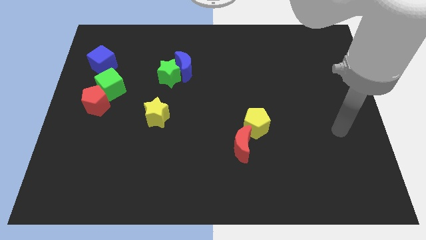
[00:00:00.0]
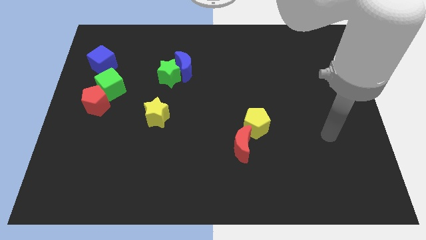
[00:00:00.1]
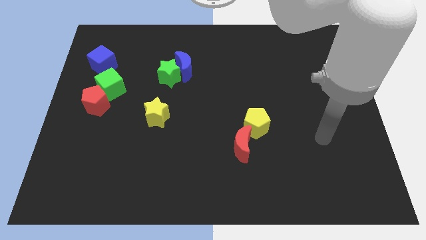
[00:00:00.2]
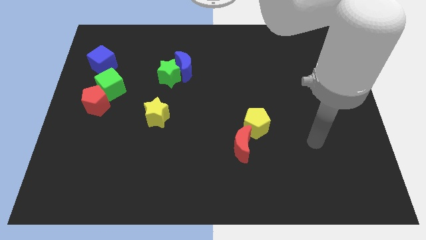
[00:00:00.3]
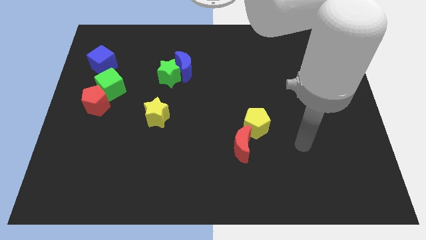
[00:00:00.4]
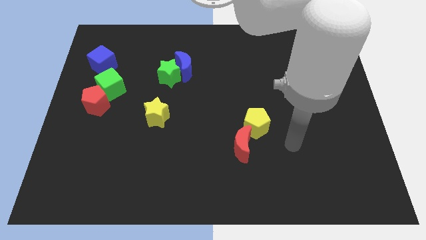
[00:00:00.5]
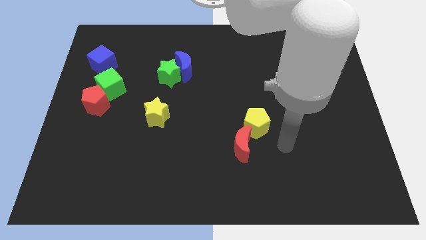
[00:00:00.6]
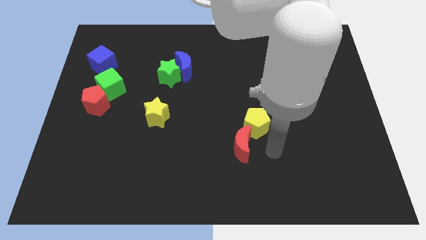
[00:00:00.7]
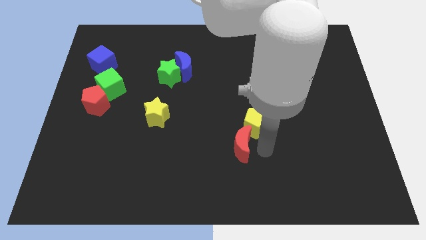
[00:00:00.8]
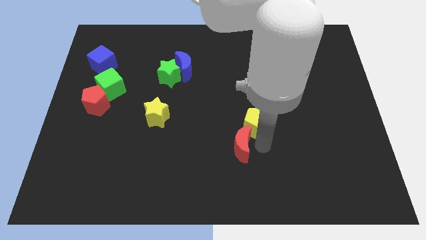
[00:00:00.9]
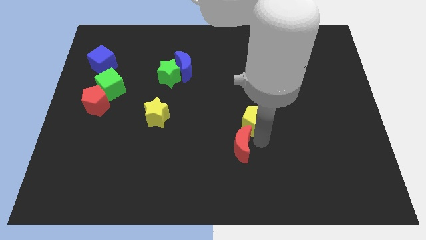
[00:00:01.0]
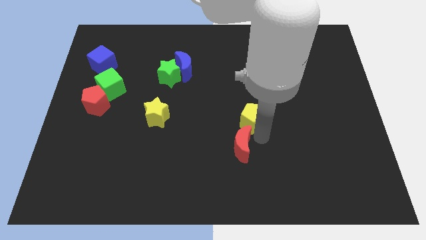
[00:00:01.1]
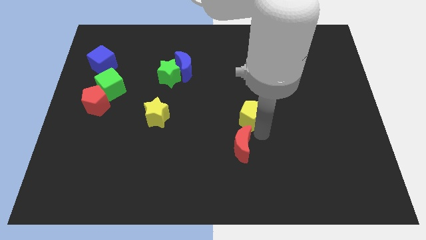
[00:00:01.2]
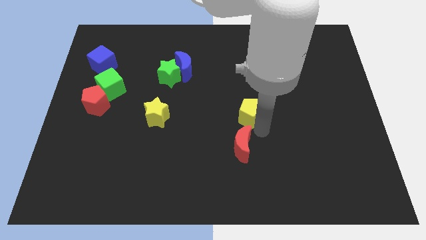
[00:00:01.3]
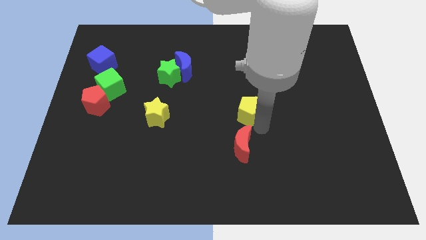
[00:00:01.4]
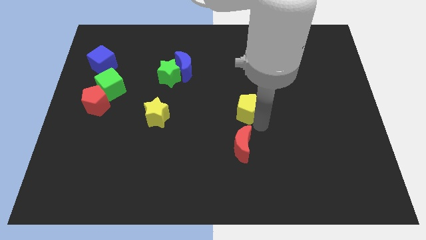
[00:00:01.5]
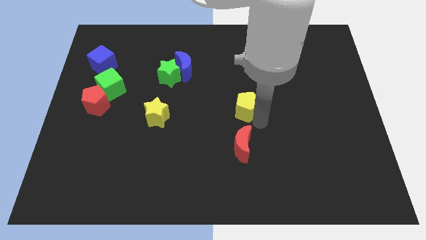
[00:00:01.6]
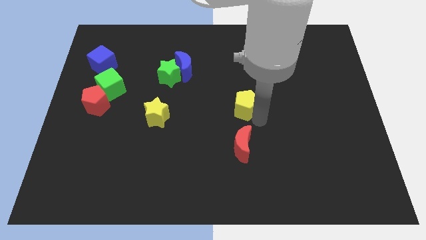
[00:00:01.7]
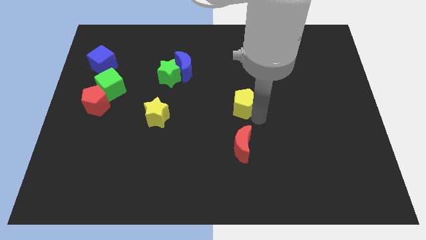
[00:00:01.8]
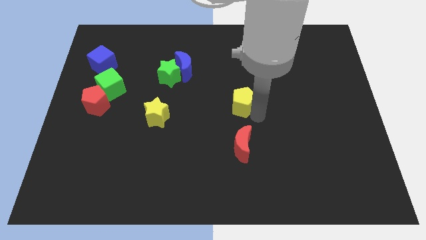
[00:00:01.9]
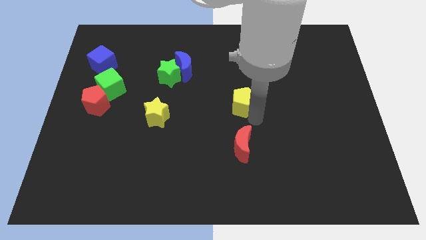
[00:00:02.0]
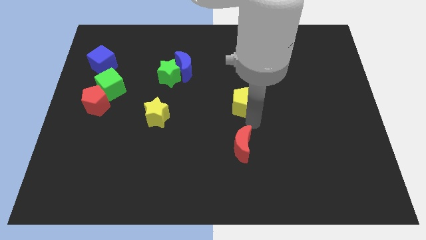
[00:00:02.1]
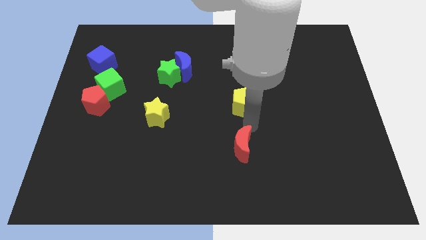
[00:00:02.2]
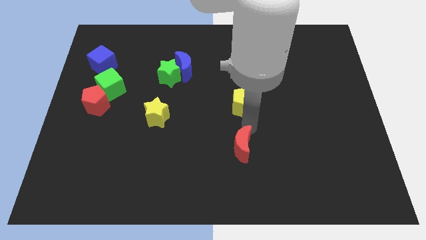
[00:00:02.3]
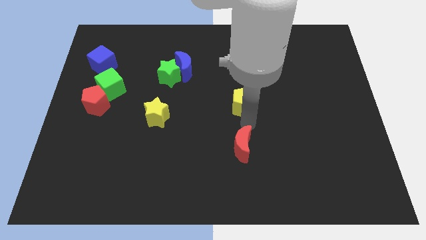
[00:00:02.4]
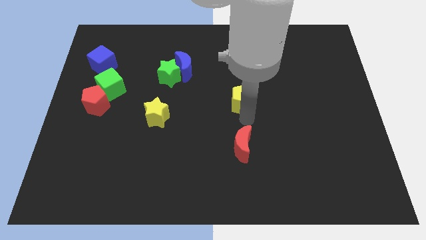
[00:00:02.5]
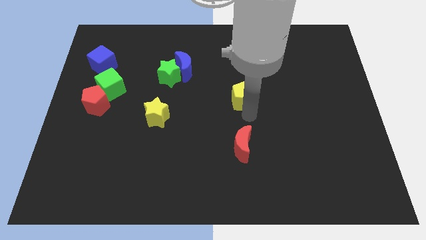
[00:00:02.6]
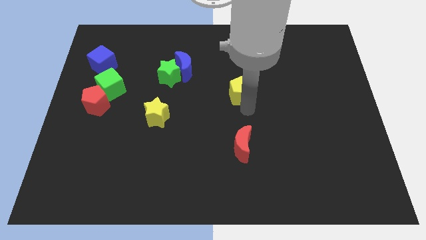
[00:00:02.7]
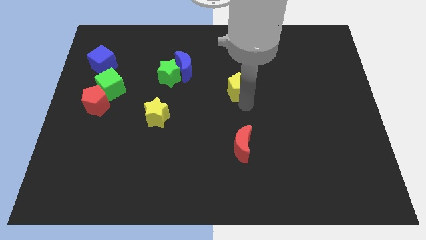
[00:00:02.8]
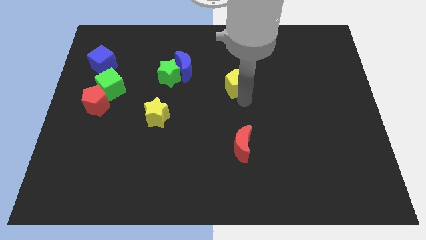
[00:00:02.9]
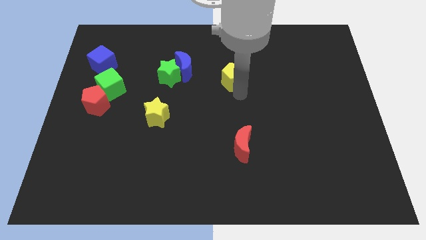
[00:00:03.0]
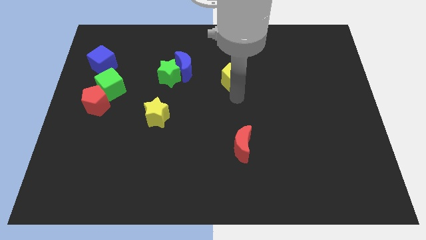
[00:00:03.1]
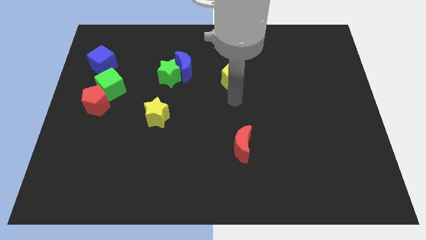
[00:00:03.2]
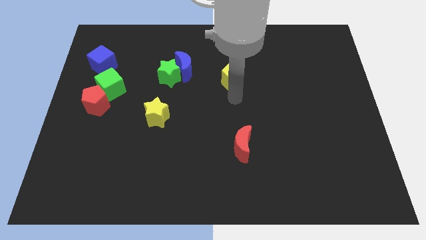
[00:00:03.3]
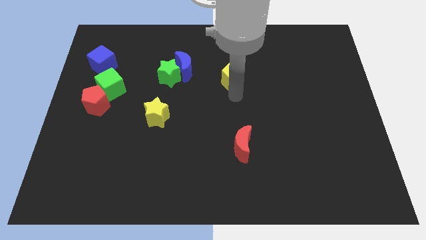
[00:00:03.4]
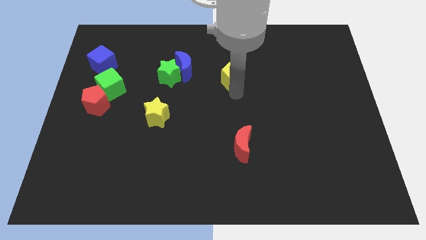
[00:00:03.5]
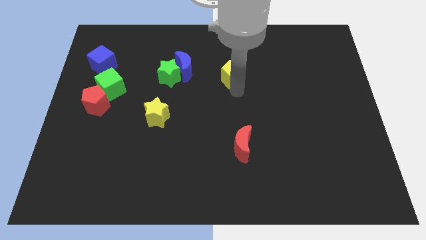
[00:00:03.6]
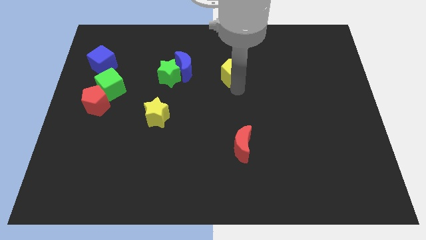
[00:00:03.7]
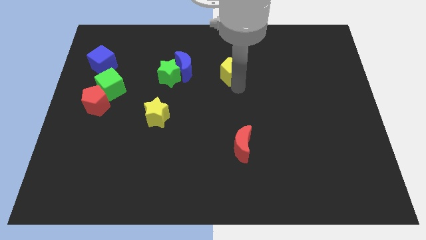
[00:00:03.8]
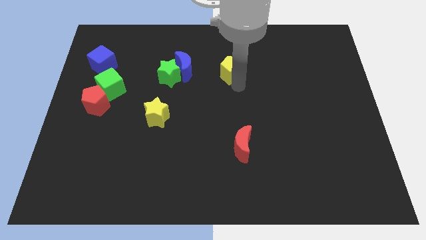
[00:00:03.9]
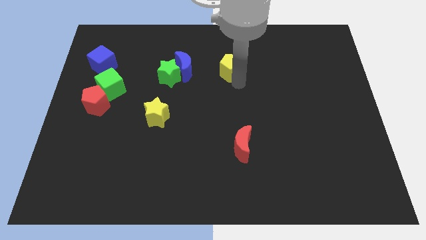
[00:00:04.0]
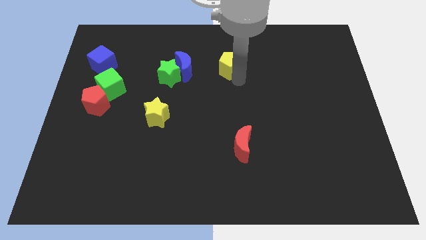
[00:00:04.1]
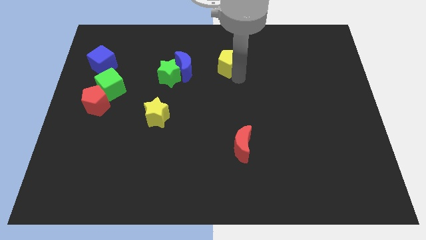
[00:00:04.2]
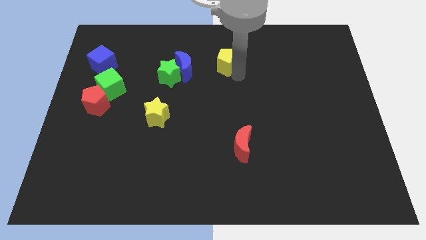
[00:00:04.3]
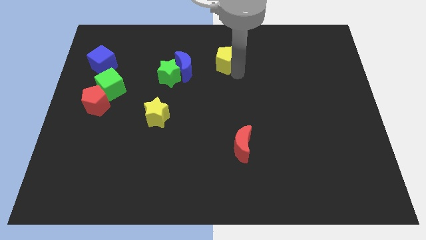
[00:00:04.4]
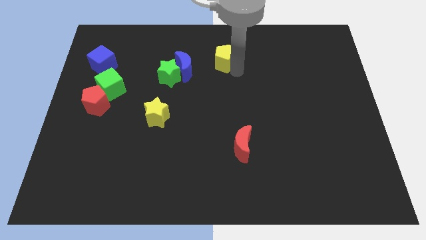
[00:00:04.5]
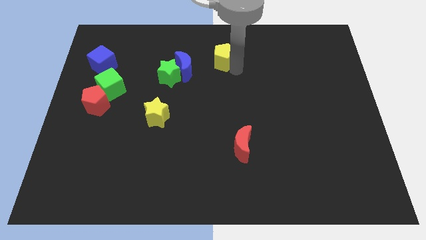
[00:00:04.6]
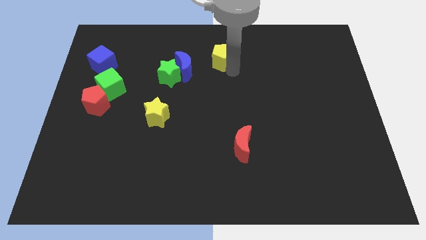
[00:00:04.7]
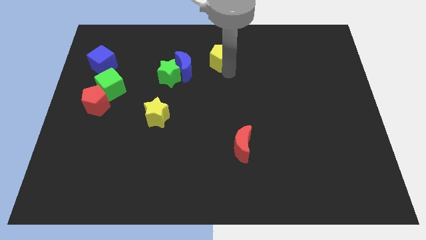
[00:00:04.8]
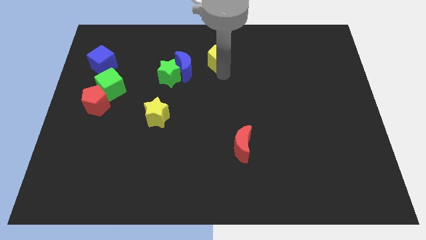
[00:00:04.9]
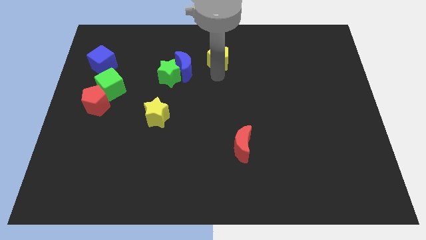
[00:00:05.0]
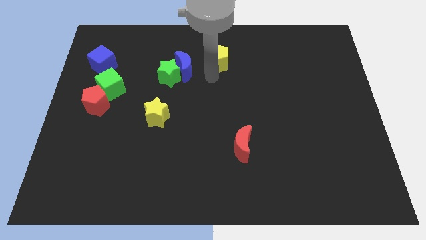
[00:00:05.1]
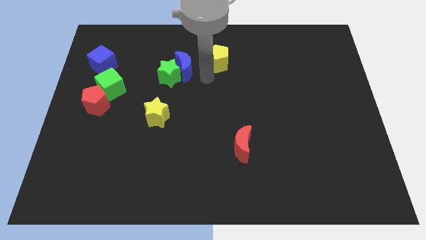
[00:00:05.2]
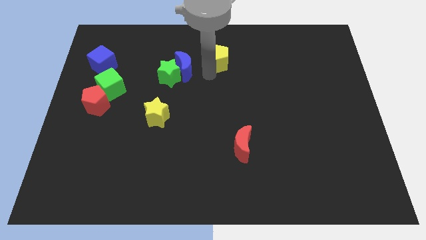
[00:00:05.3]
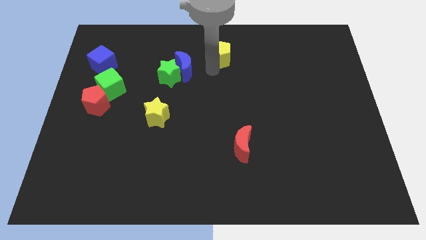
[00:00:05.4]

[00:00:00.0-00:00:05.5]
slide the yellow pentagon to the towards your base

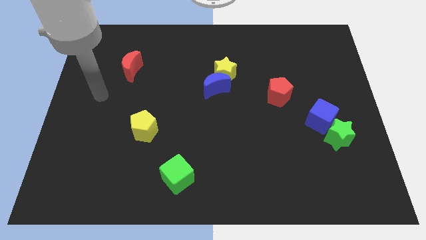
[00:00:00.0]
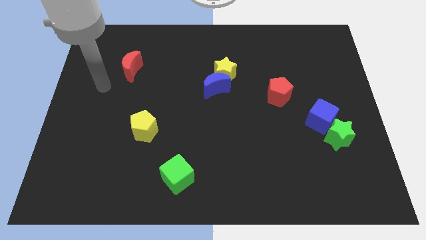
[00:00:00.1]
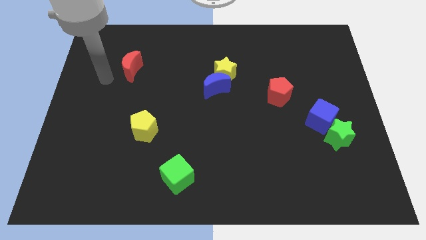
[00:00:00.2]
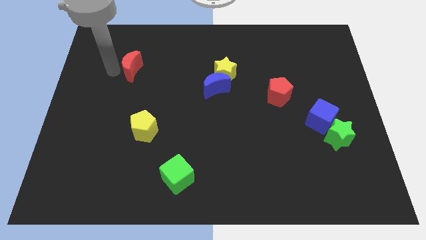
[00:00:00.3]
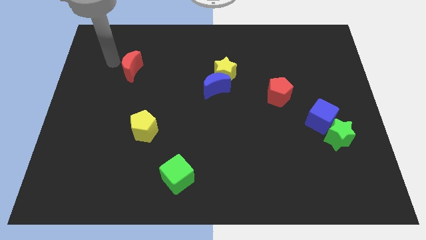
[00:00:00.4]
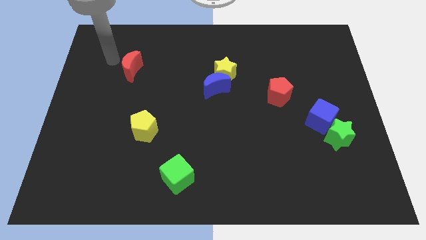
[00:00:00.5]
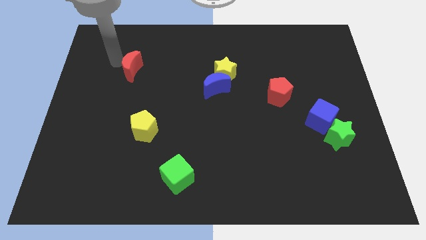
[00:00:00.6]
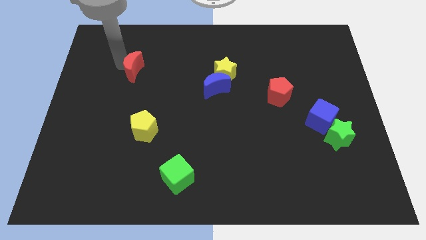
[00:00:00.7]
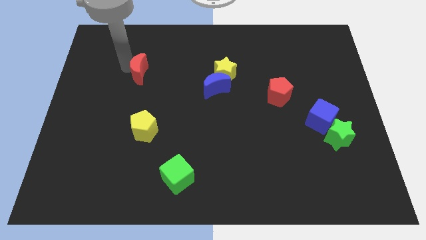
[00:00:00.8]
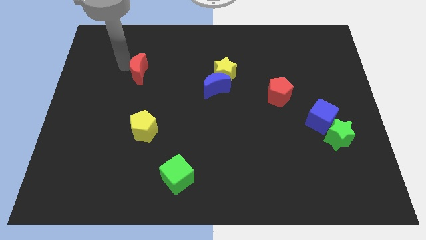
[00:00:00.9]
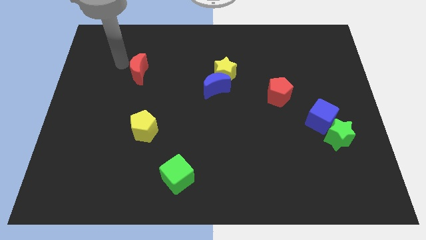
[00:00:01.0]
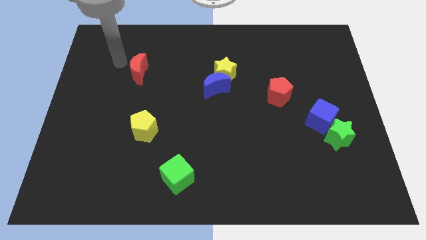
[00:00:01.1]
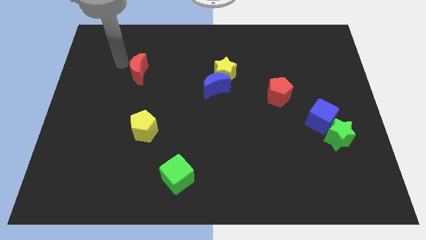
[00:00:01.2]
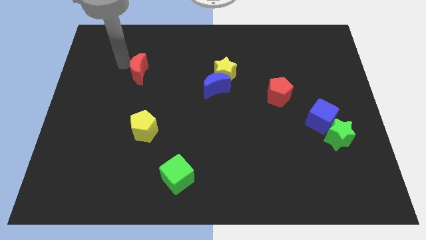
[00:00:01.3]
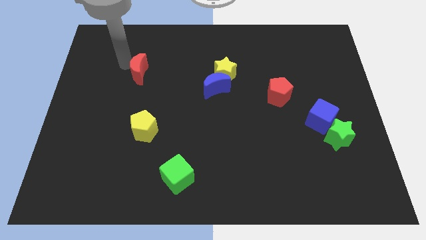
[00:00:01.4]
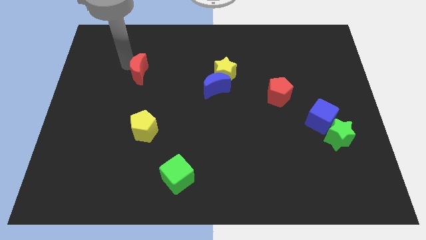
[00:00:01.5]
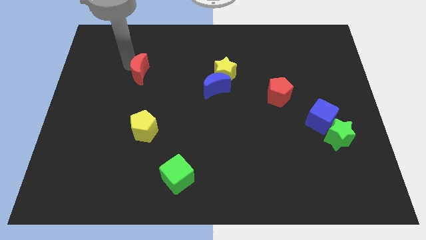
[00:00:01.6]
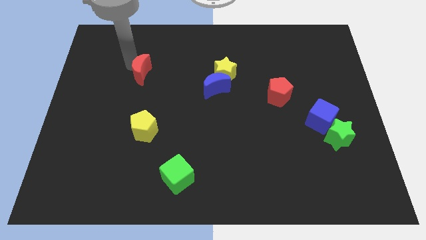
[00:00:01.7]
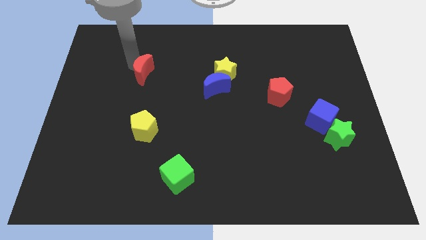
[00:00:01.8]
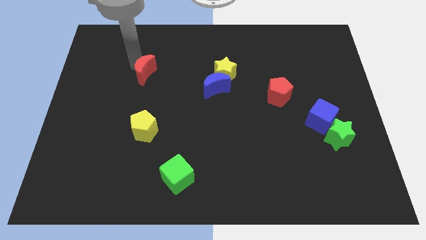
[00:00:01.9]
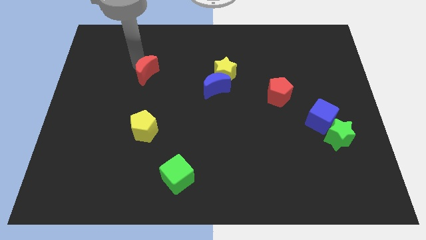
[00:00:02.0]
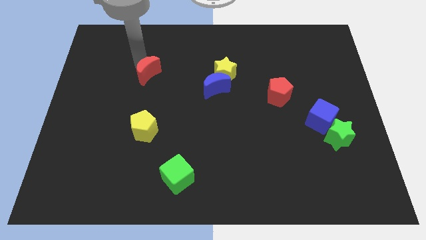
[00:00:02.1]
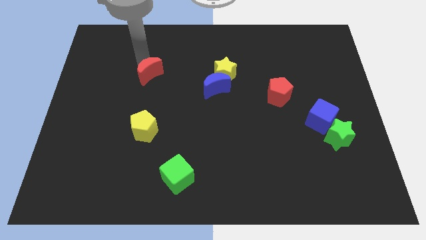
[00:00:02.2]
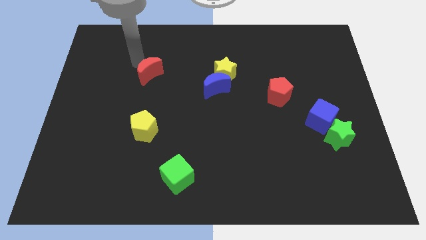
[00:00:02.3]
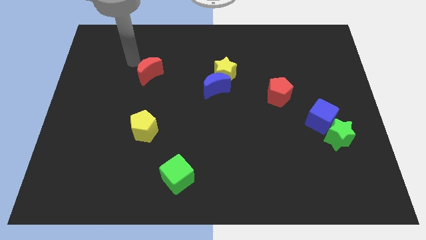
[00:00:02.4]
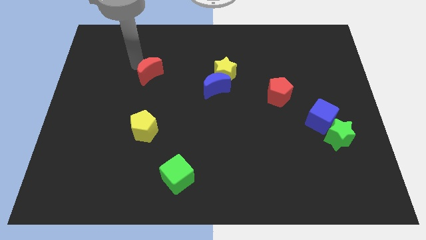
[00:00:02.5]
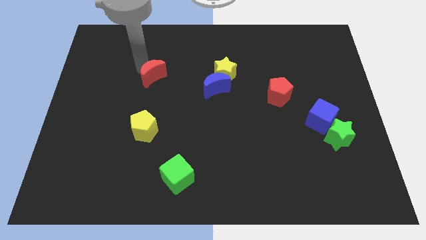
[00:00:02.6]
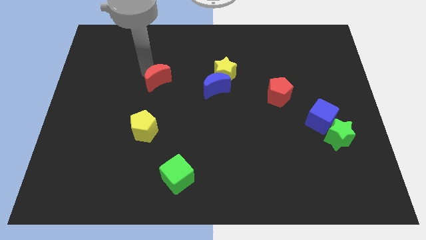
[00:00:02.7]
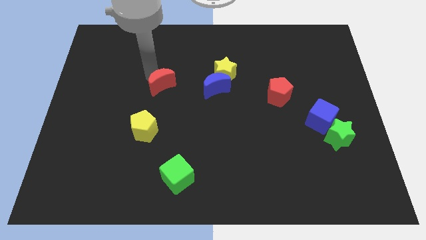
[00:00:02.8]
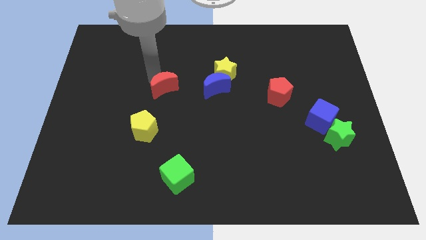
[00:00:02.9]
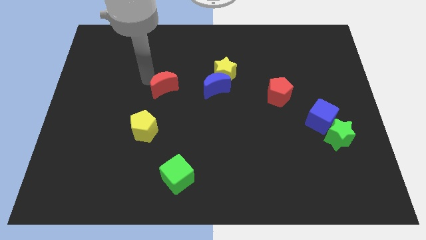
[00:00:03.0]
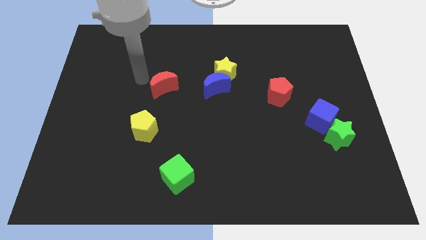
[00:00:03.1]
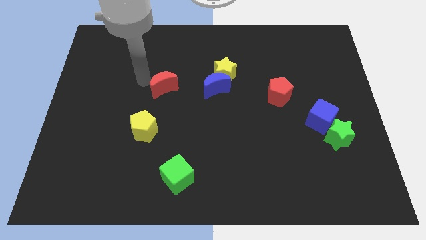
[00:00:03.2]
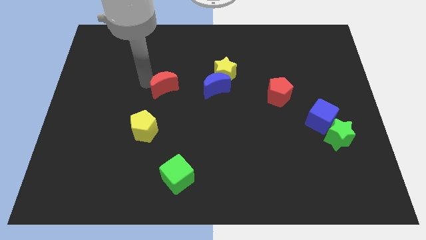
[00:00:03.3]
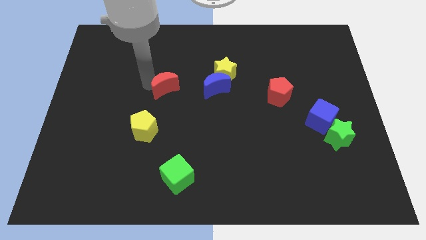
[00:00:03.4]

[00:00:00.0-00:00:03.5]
move the red moon to the center of the board
